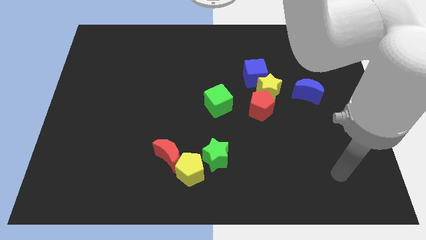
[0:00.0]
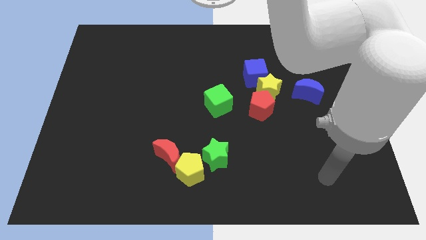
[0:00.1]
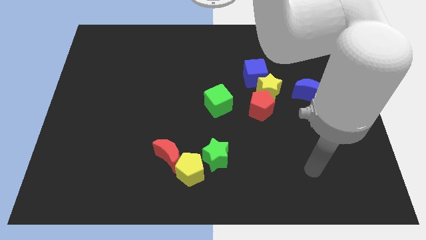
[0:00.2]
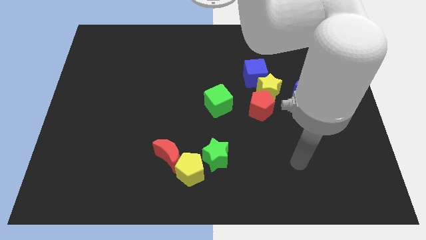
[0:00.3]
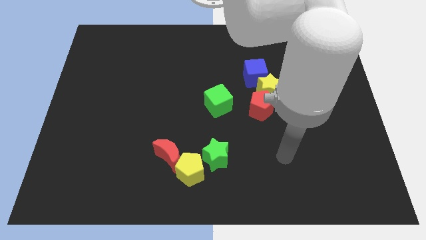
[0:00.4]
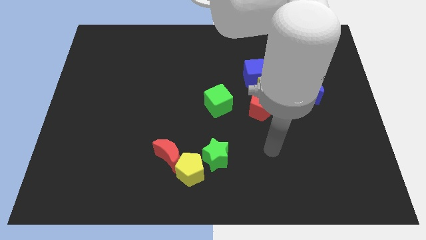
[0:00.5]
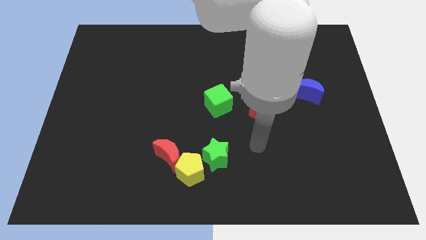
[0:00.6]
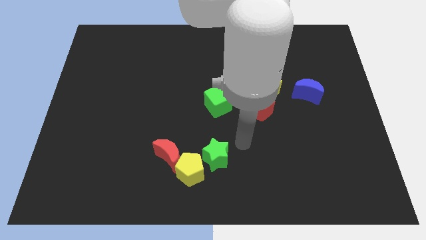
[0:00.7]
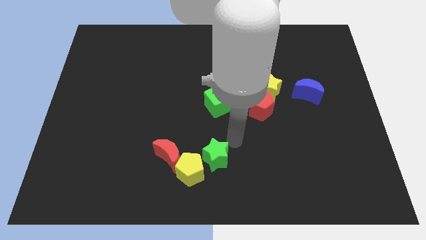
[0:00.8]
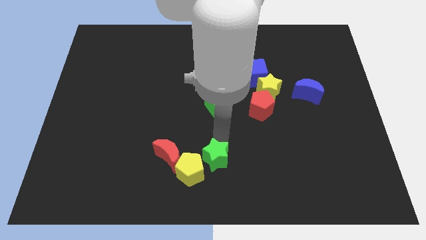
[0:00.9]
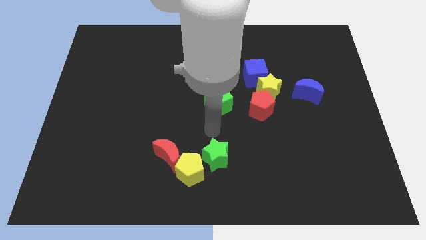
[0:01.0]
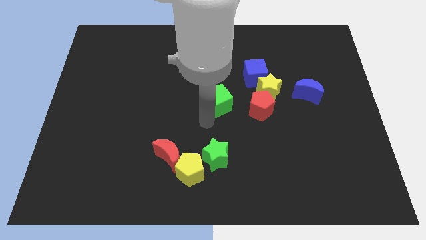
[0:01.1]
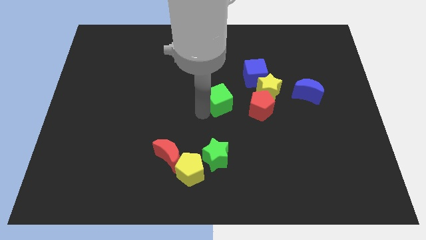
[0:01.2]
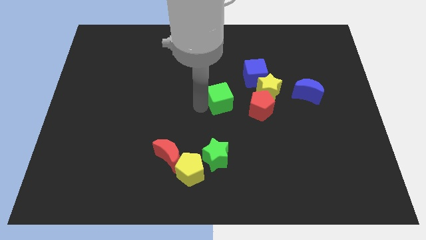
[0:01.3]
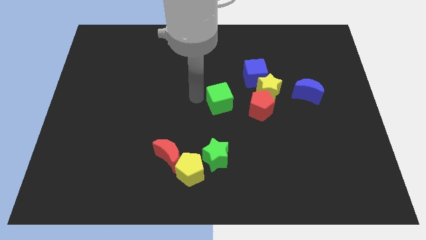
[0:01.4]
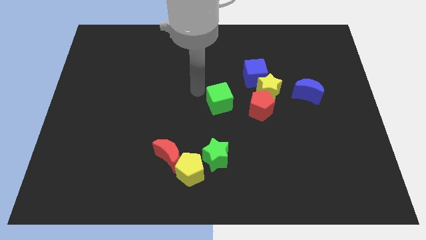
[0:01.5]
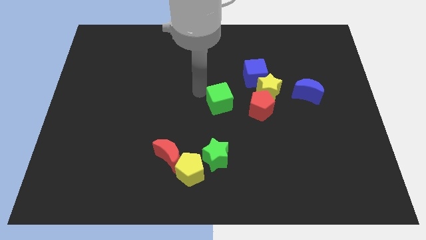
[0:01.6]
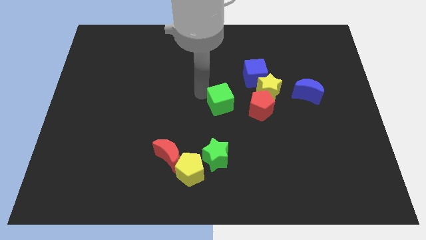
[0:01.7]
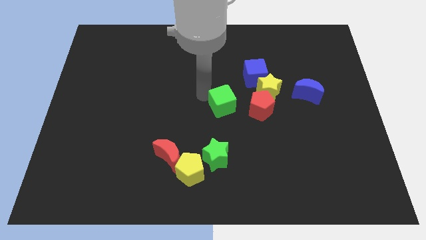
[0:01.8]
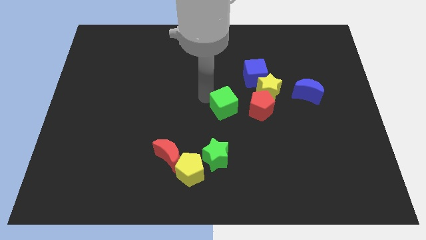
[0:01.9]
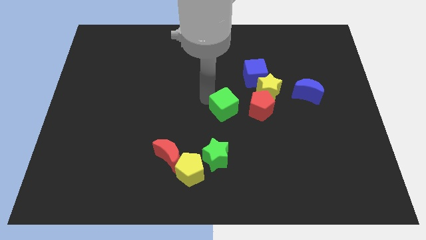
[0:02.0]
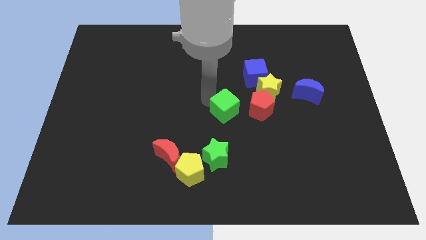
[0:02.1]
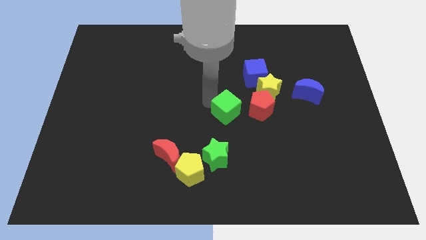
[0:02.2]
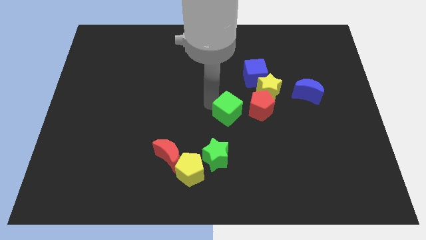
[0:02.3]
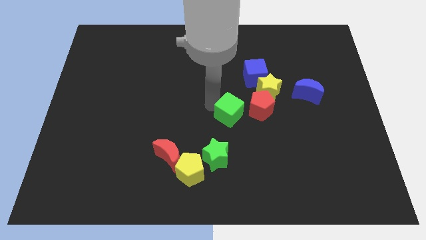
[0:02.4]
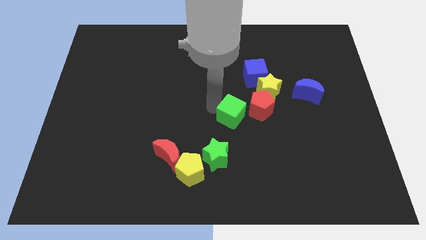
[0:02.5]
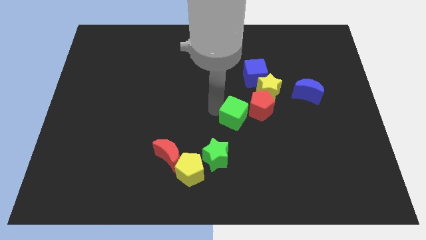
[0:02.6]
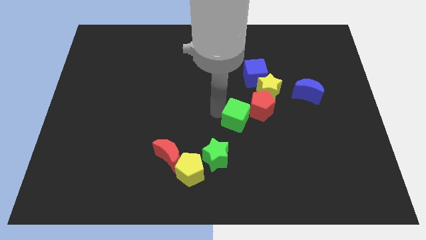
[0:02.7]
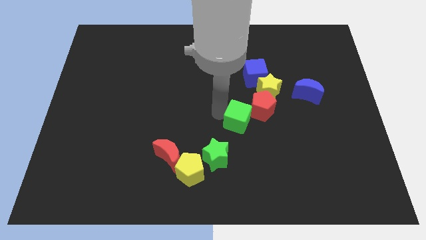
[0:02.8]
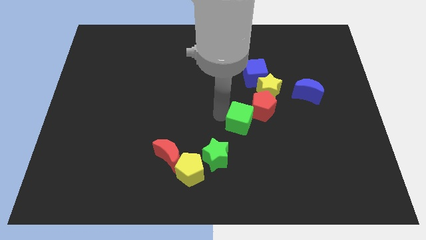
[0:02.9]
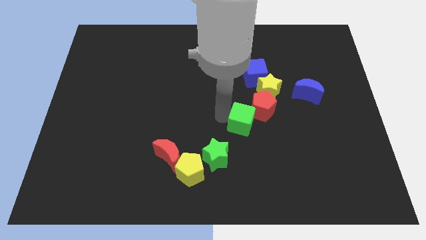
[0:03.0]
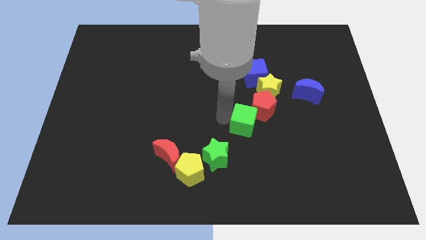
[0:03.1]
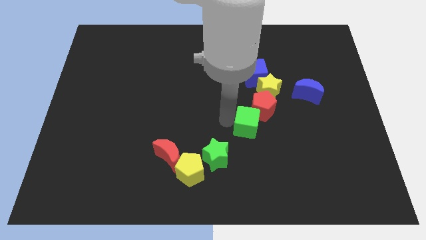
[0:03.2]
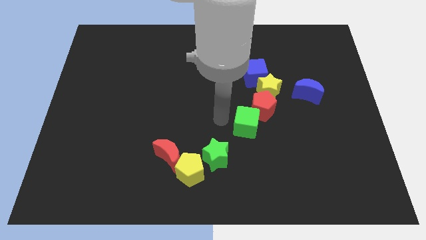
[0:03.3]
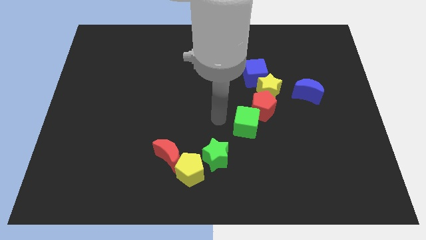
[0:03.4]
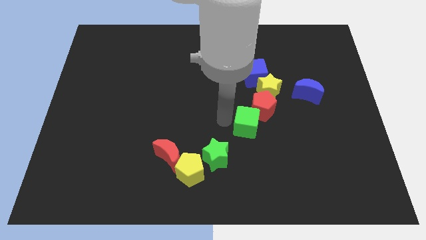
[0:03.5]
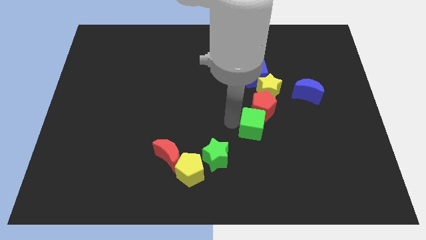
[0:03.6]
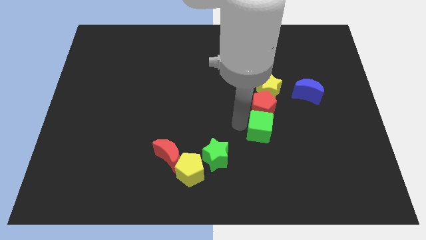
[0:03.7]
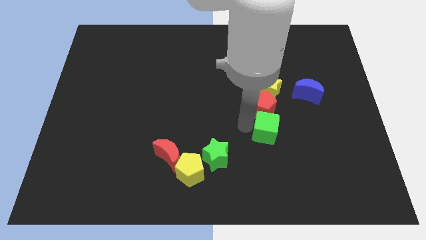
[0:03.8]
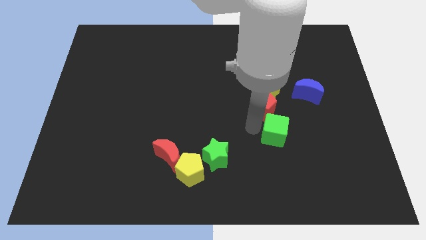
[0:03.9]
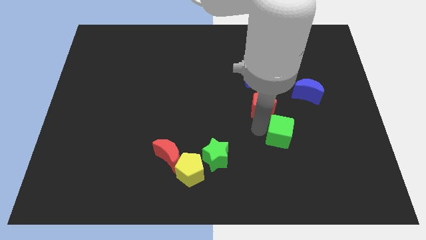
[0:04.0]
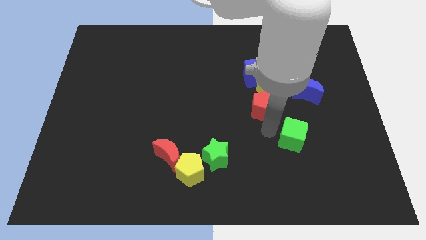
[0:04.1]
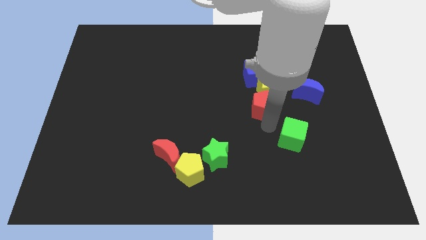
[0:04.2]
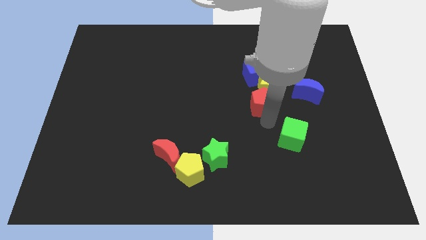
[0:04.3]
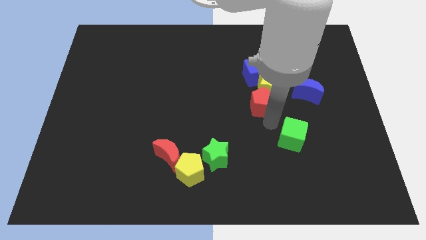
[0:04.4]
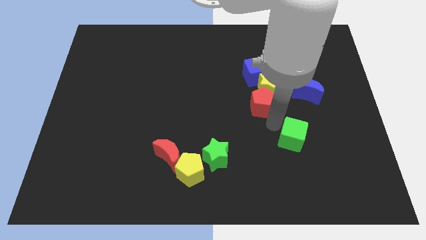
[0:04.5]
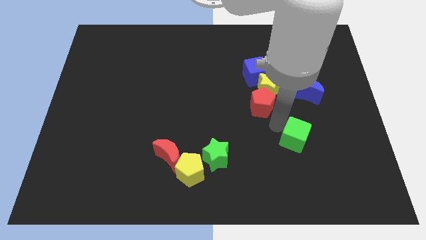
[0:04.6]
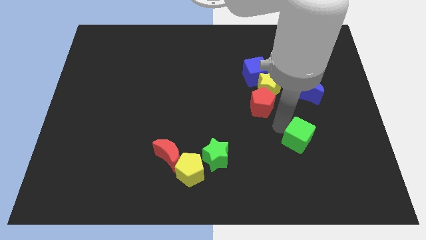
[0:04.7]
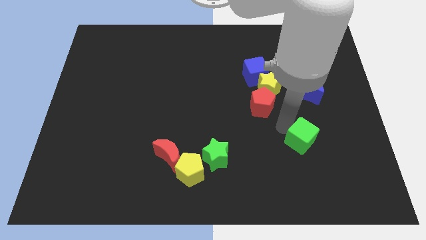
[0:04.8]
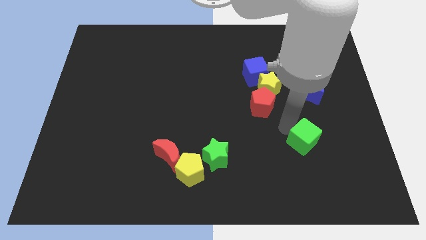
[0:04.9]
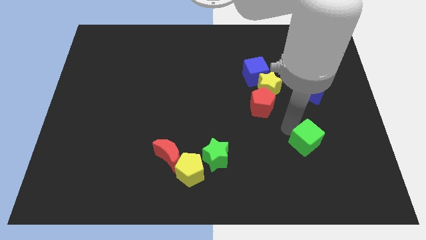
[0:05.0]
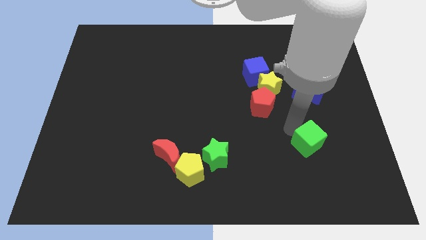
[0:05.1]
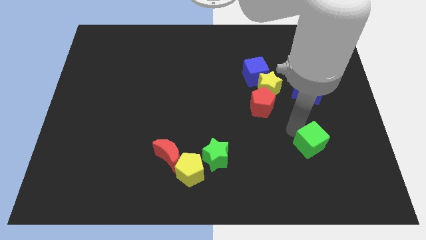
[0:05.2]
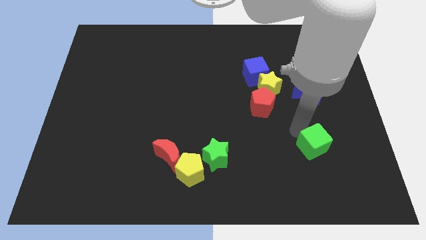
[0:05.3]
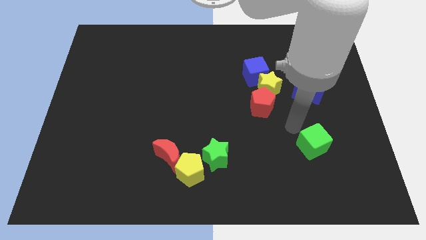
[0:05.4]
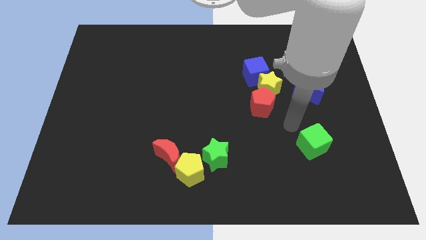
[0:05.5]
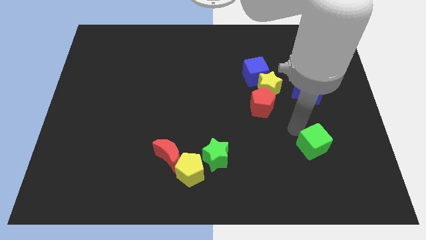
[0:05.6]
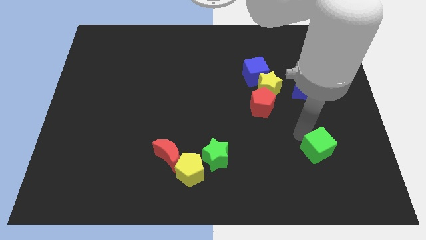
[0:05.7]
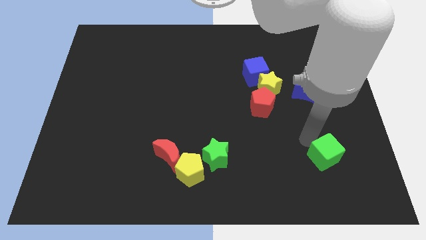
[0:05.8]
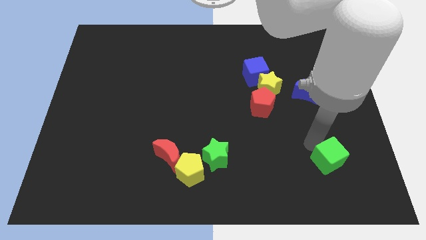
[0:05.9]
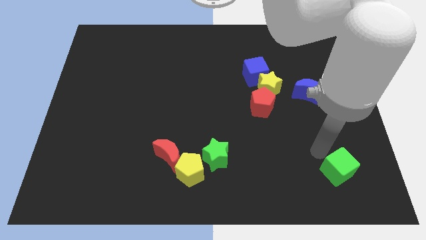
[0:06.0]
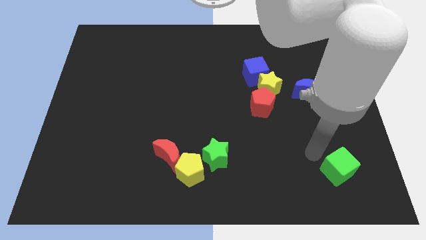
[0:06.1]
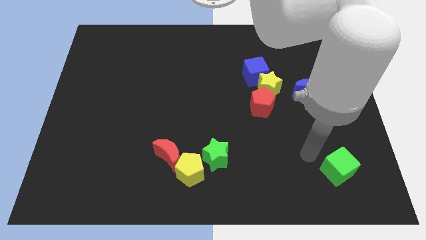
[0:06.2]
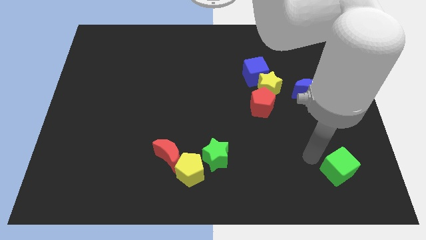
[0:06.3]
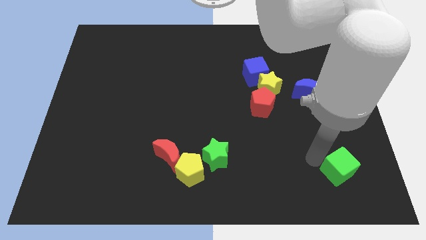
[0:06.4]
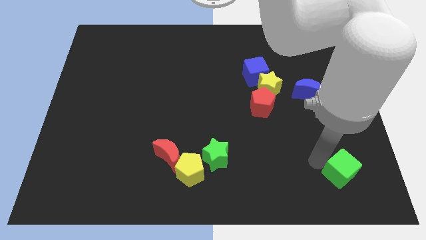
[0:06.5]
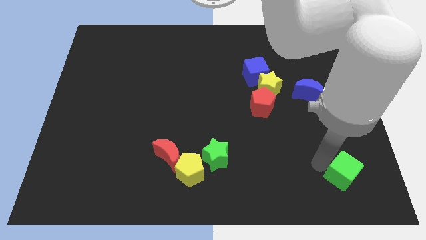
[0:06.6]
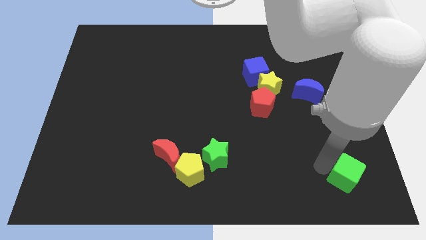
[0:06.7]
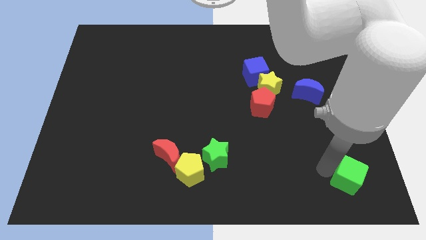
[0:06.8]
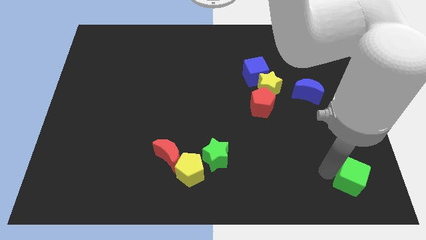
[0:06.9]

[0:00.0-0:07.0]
move the green cube to the bottom right of the board
